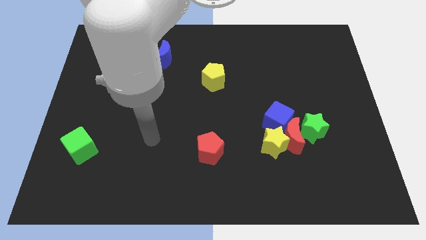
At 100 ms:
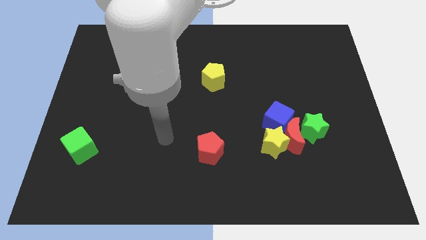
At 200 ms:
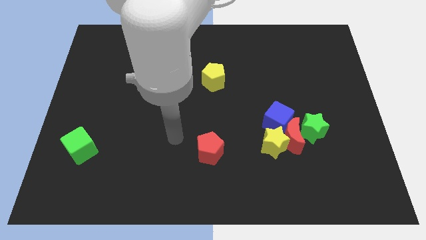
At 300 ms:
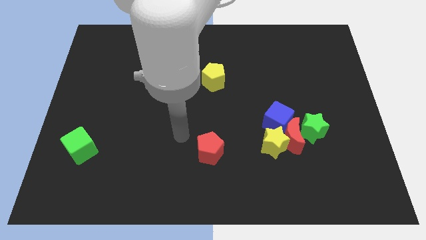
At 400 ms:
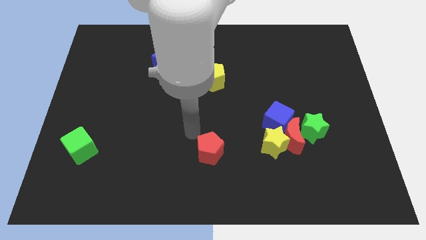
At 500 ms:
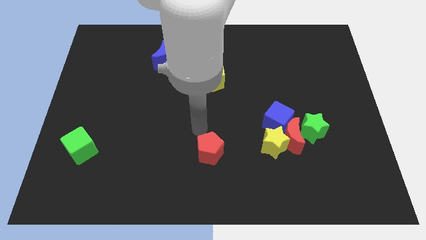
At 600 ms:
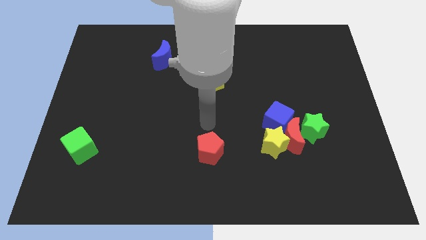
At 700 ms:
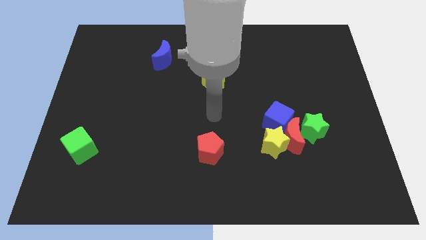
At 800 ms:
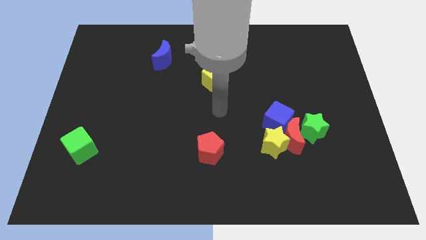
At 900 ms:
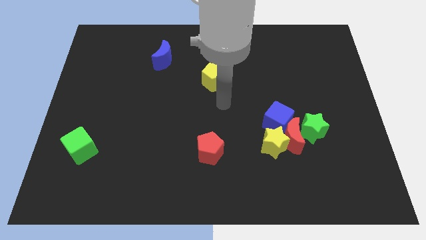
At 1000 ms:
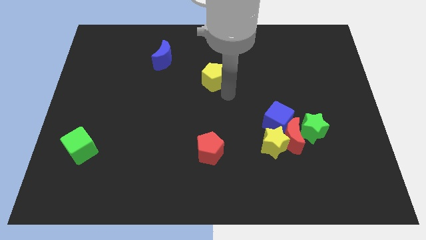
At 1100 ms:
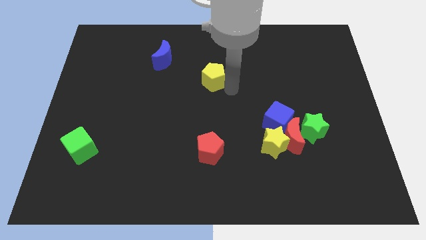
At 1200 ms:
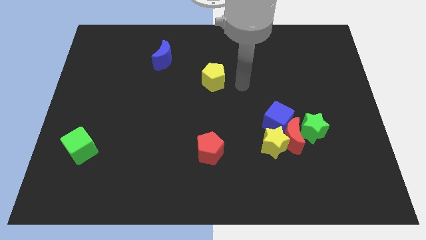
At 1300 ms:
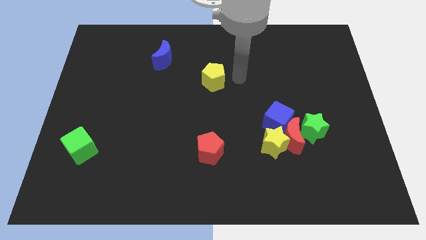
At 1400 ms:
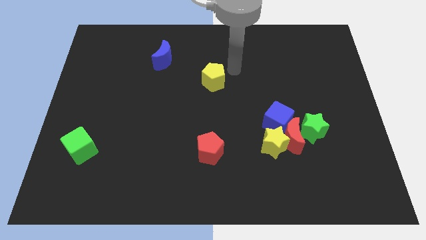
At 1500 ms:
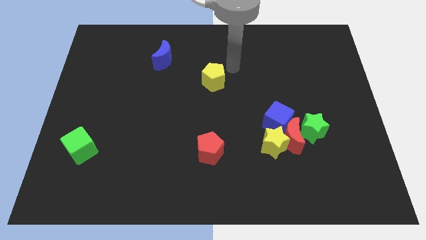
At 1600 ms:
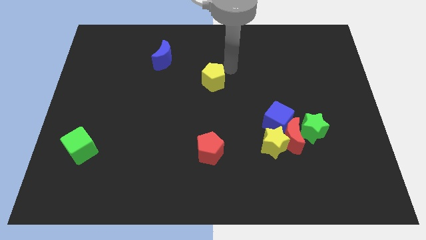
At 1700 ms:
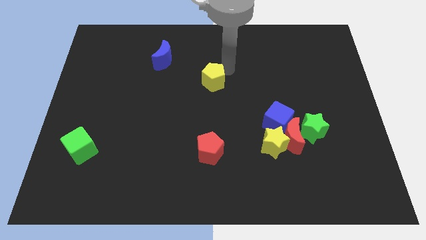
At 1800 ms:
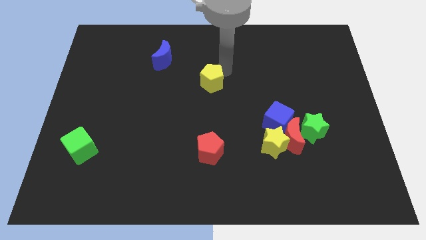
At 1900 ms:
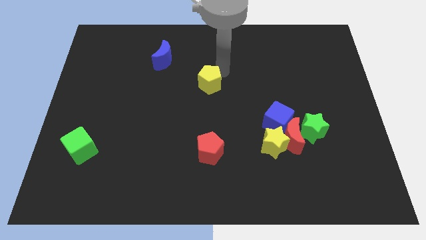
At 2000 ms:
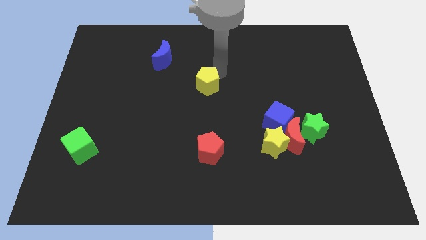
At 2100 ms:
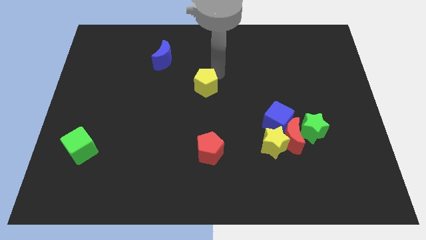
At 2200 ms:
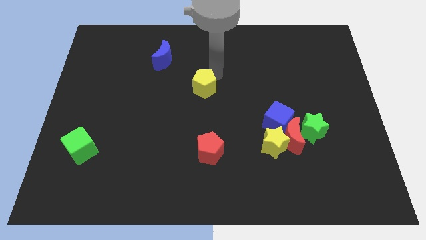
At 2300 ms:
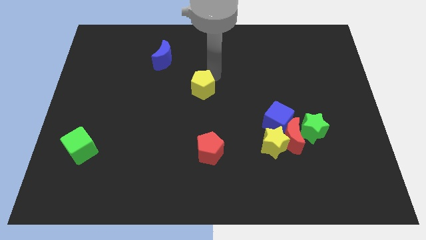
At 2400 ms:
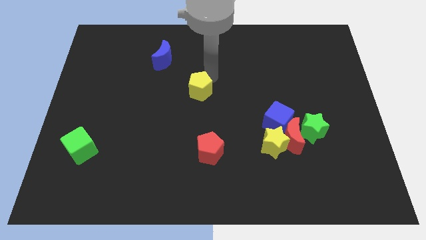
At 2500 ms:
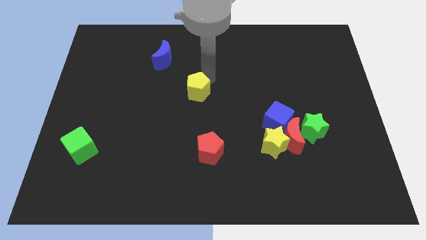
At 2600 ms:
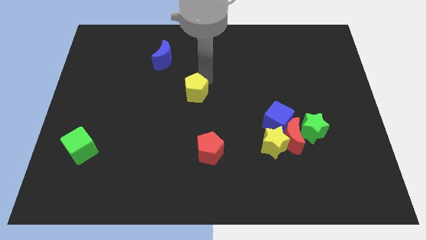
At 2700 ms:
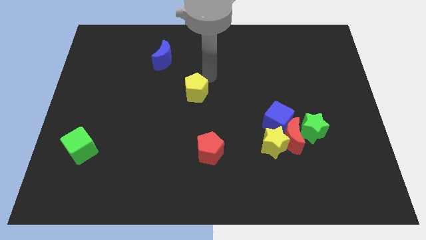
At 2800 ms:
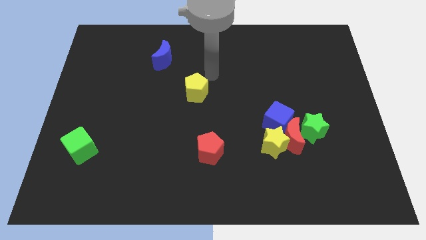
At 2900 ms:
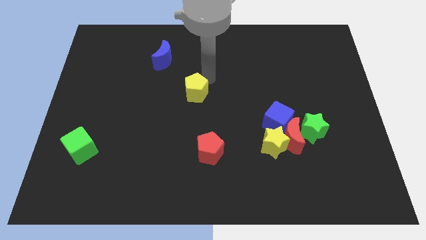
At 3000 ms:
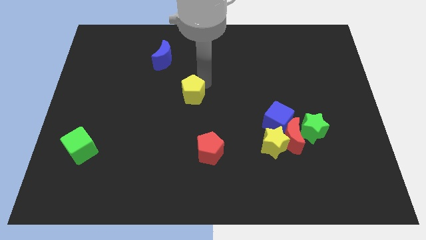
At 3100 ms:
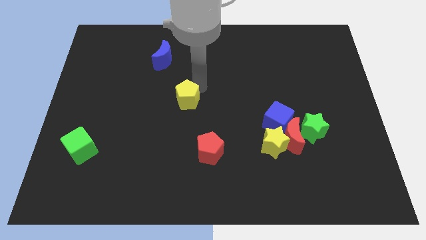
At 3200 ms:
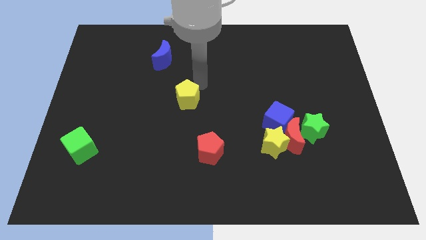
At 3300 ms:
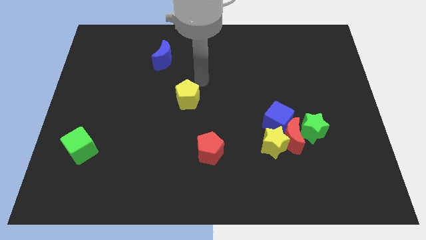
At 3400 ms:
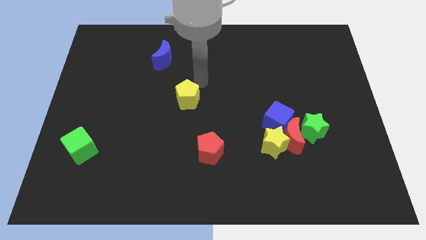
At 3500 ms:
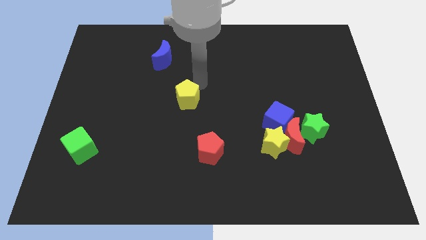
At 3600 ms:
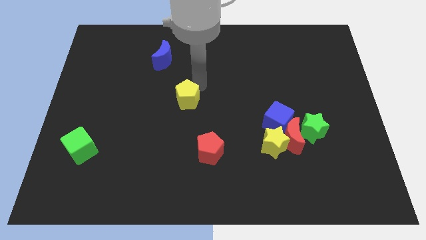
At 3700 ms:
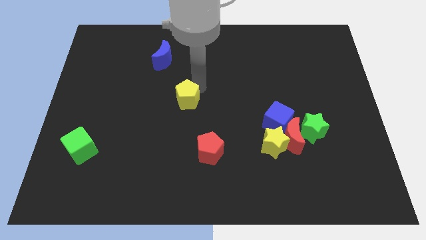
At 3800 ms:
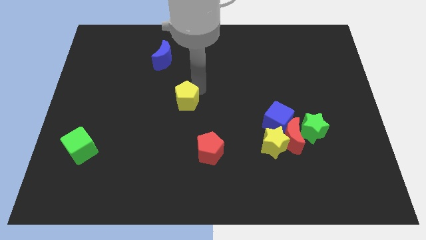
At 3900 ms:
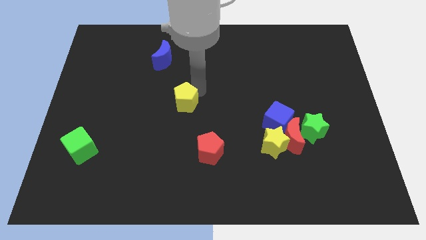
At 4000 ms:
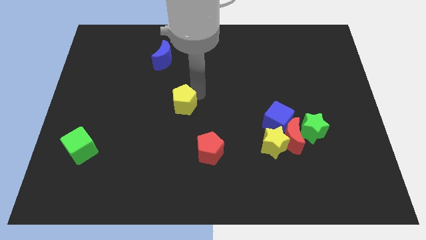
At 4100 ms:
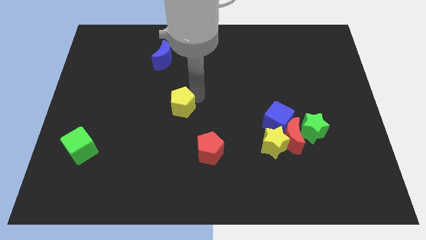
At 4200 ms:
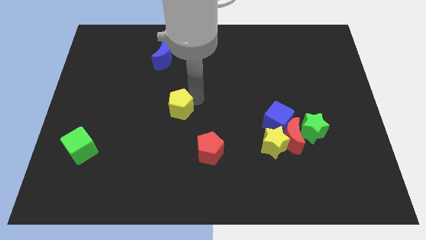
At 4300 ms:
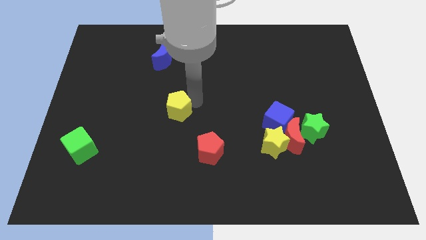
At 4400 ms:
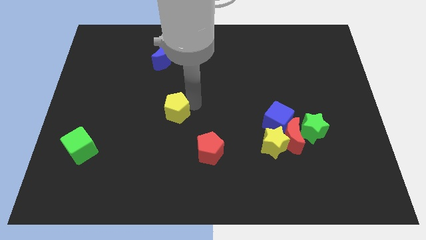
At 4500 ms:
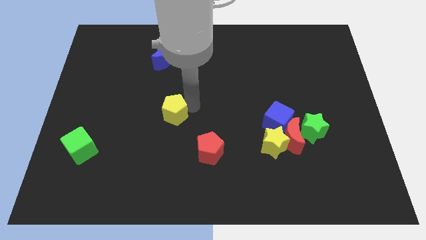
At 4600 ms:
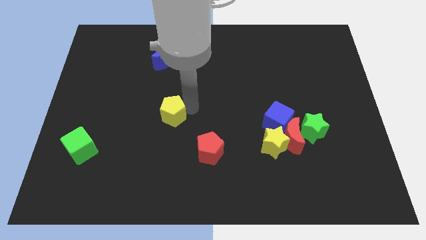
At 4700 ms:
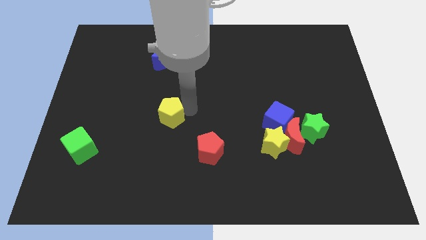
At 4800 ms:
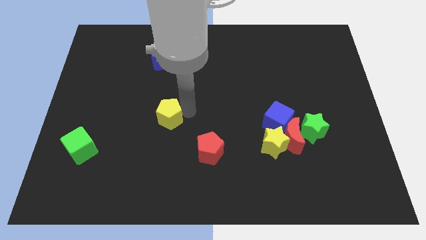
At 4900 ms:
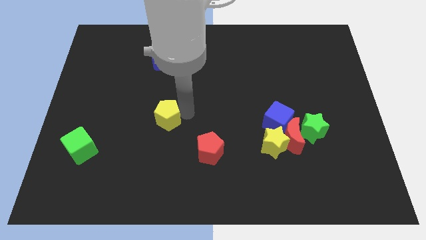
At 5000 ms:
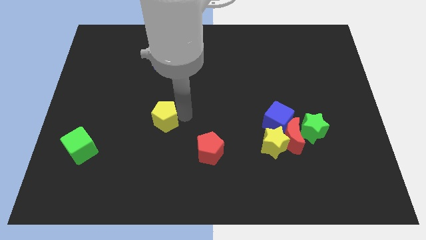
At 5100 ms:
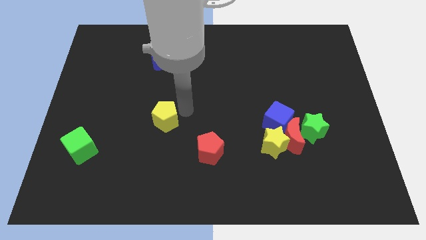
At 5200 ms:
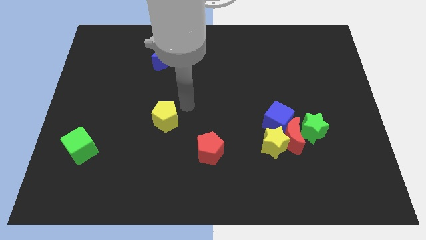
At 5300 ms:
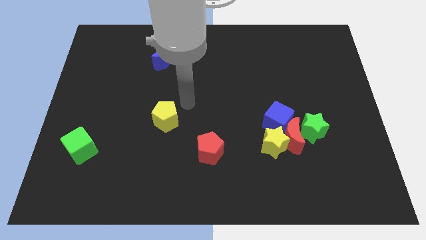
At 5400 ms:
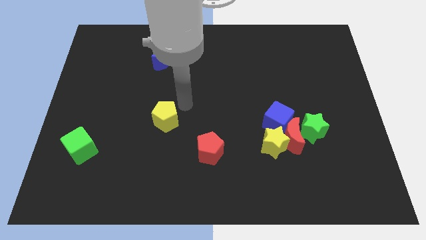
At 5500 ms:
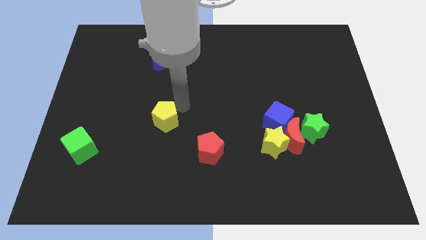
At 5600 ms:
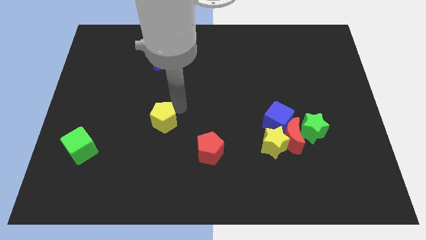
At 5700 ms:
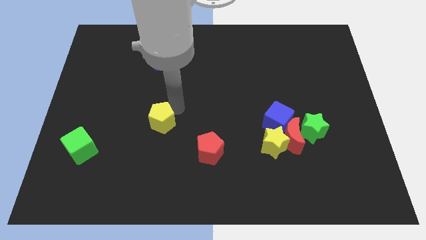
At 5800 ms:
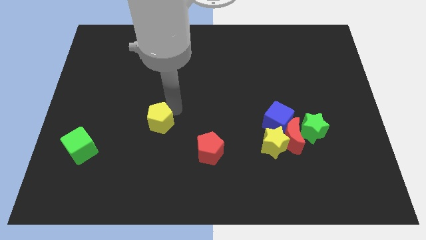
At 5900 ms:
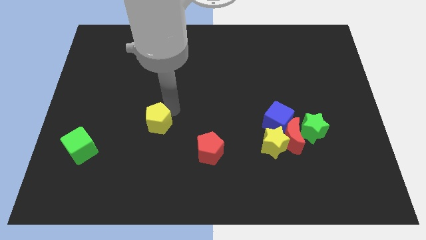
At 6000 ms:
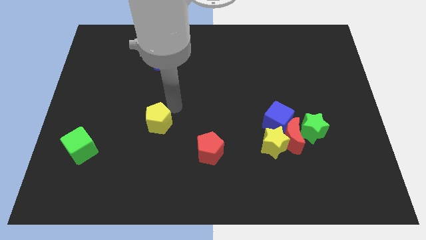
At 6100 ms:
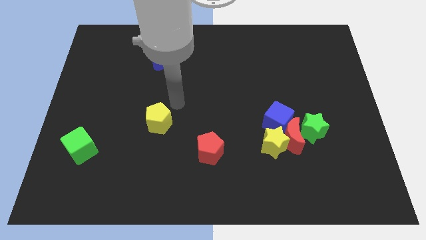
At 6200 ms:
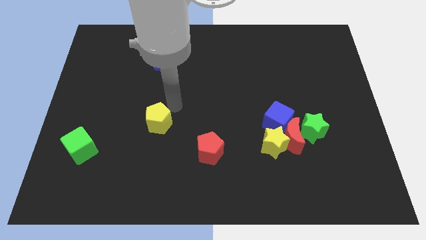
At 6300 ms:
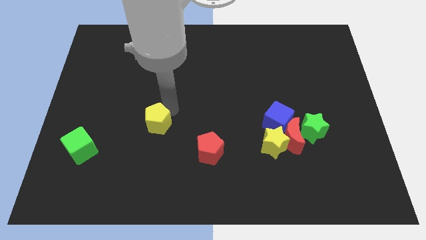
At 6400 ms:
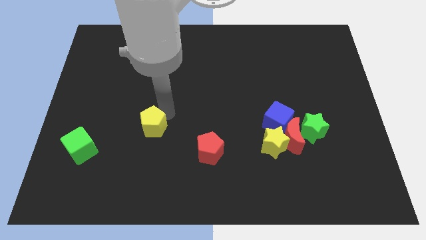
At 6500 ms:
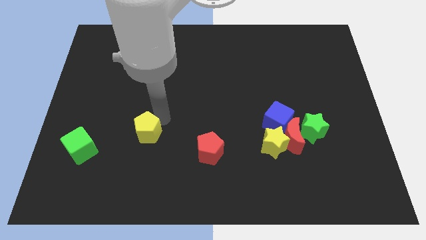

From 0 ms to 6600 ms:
slide the yellow pentagon diagonally downwards and to the left

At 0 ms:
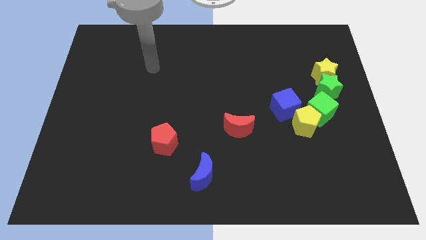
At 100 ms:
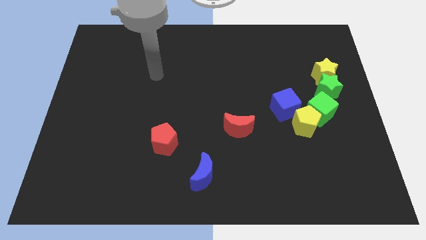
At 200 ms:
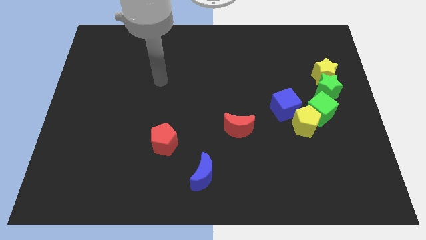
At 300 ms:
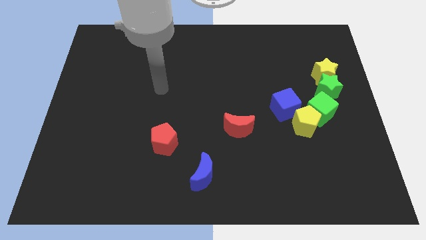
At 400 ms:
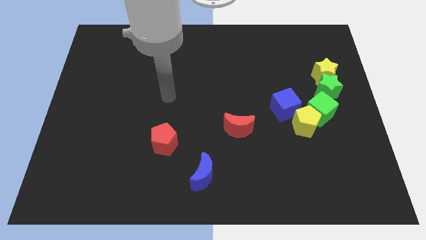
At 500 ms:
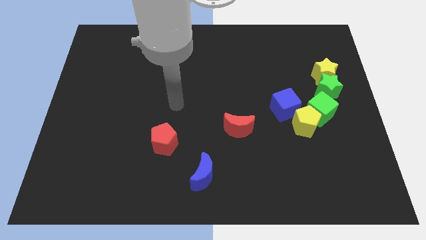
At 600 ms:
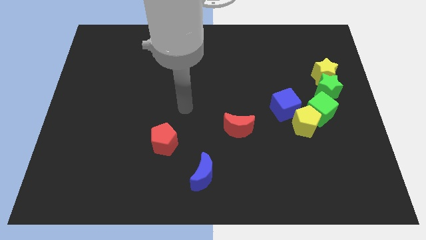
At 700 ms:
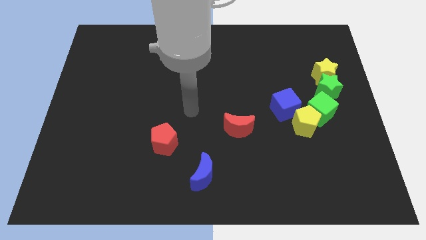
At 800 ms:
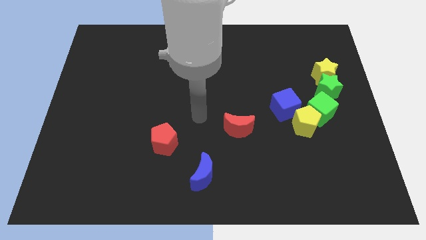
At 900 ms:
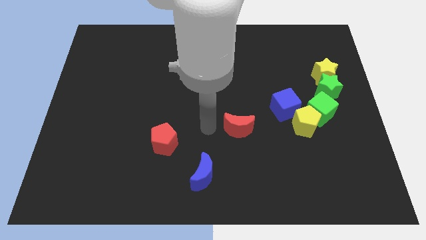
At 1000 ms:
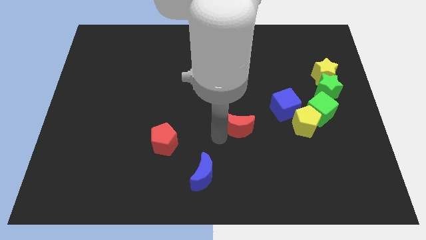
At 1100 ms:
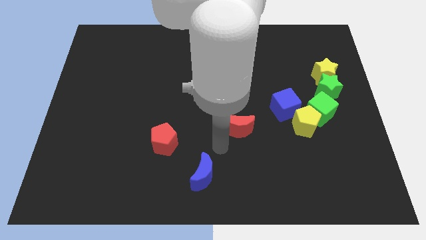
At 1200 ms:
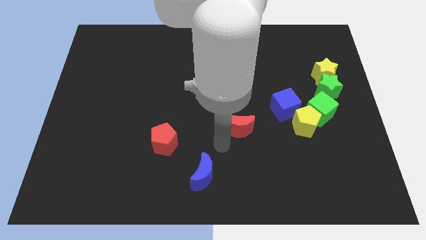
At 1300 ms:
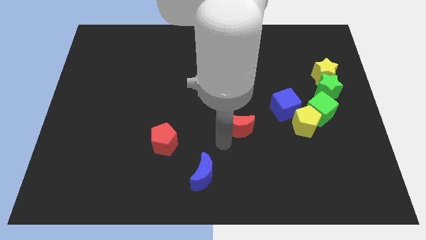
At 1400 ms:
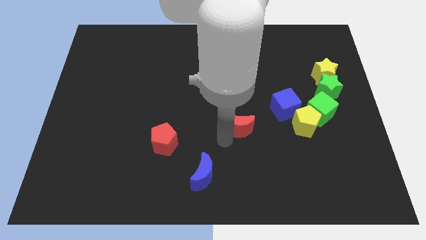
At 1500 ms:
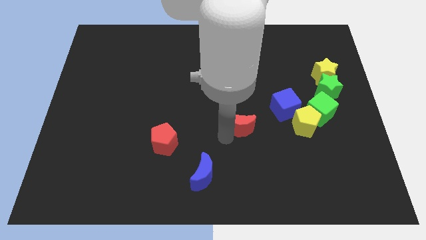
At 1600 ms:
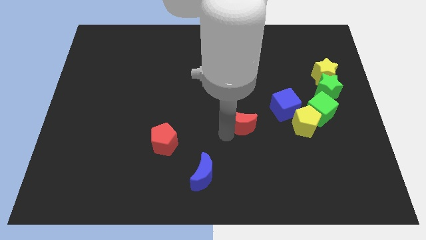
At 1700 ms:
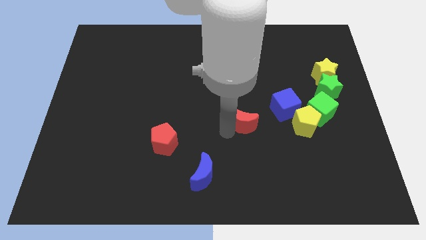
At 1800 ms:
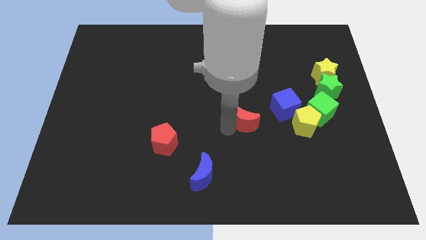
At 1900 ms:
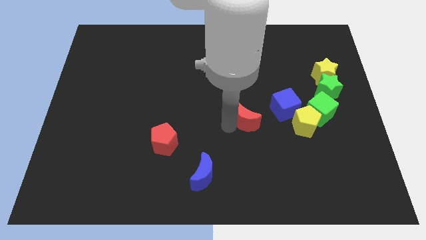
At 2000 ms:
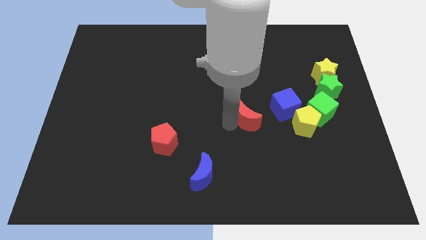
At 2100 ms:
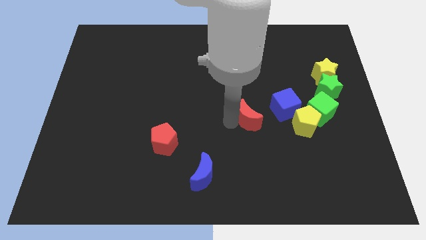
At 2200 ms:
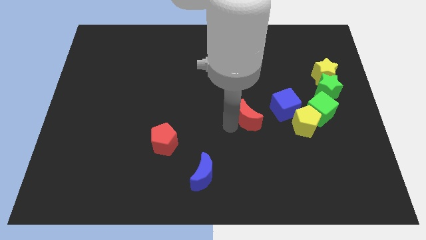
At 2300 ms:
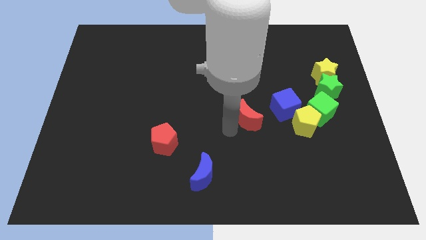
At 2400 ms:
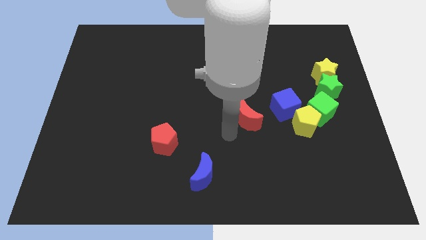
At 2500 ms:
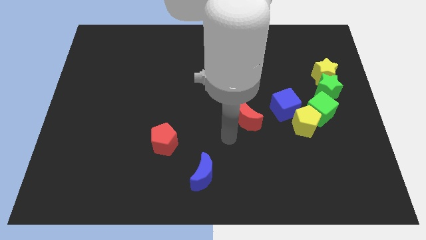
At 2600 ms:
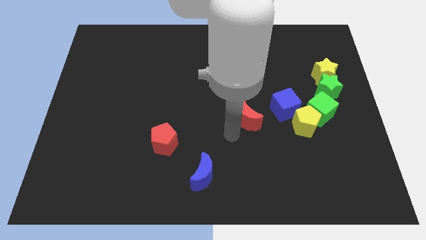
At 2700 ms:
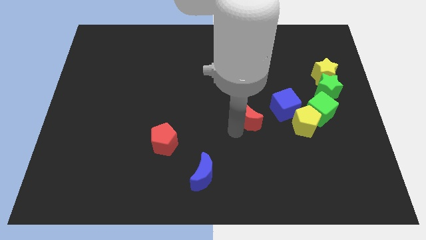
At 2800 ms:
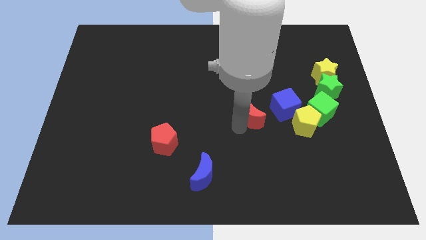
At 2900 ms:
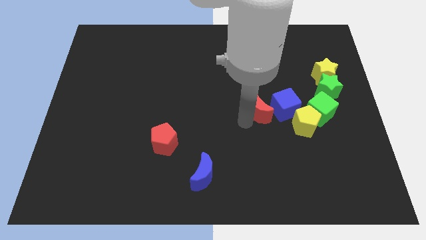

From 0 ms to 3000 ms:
slide the red moon diagonally up and right a bit
